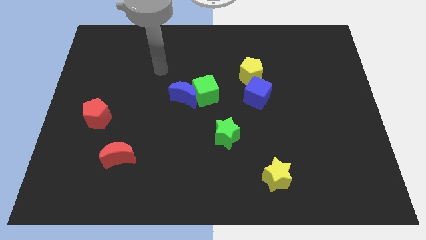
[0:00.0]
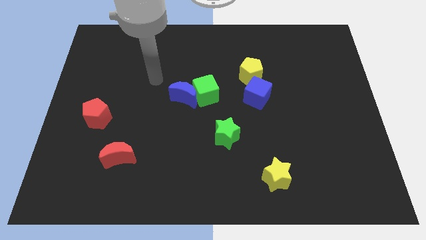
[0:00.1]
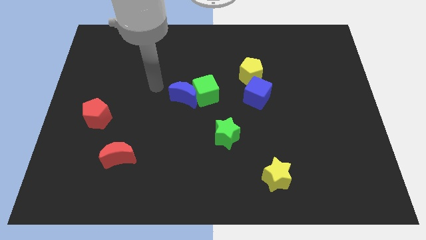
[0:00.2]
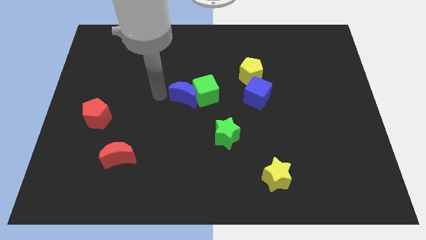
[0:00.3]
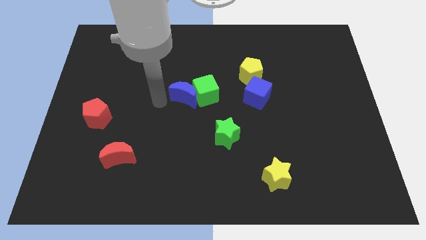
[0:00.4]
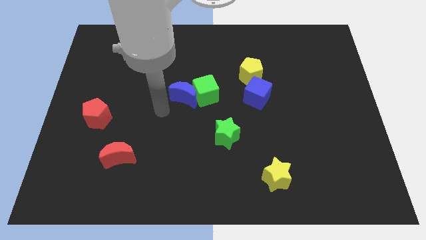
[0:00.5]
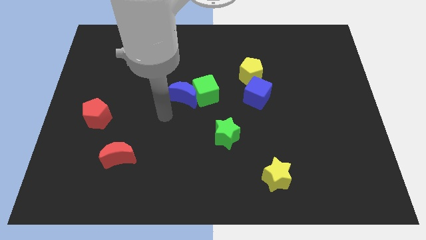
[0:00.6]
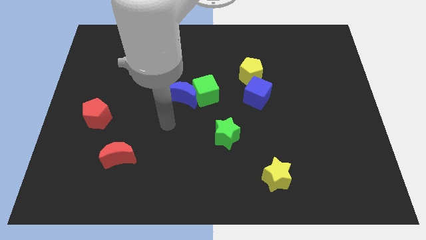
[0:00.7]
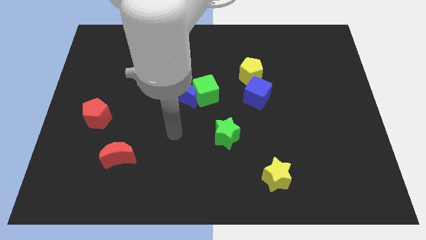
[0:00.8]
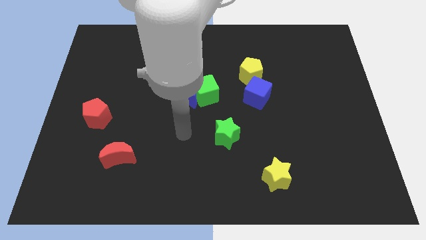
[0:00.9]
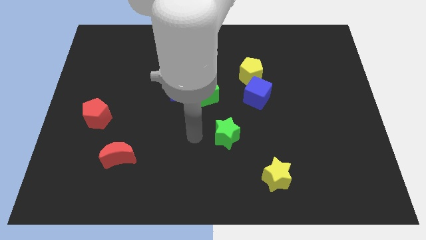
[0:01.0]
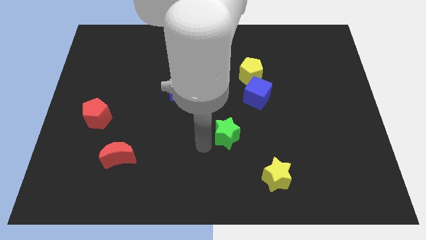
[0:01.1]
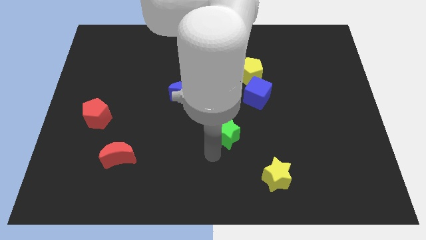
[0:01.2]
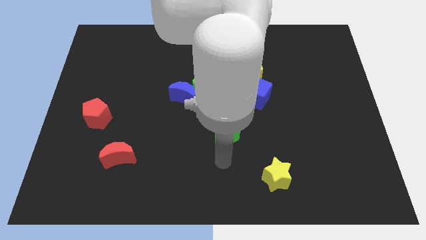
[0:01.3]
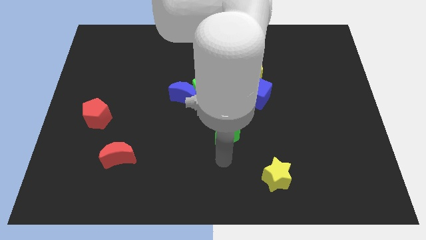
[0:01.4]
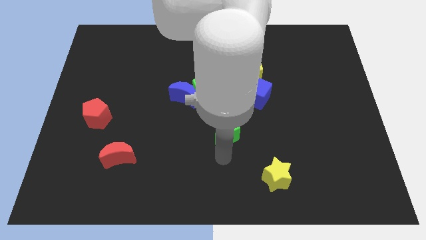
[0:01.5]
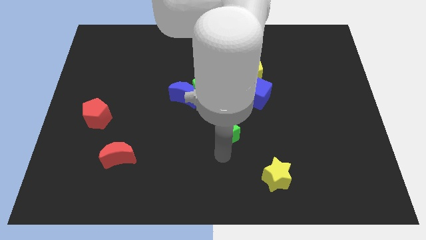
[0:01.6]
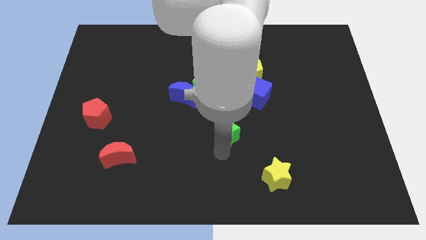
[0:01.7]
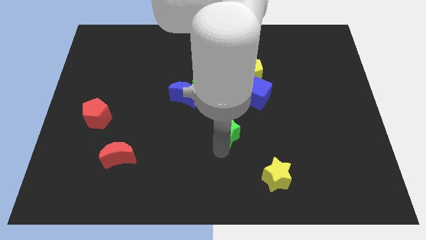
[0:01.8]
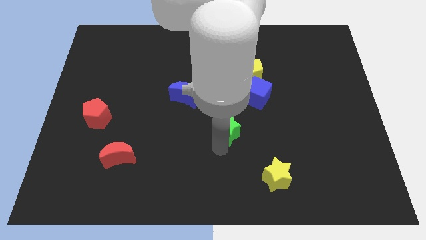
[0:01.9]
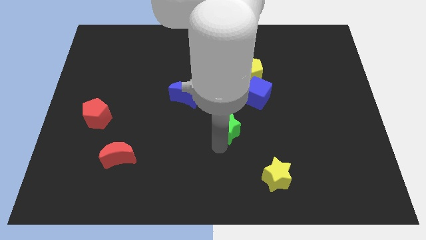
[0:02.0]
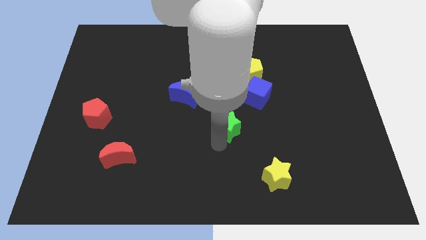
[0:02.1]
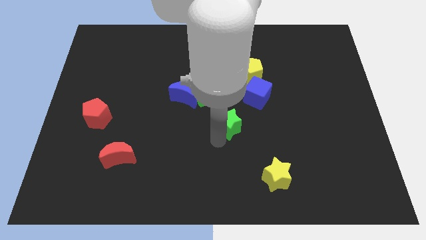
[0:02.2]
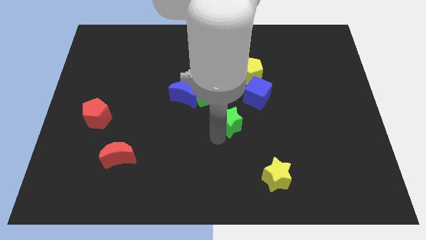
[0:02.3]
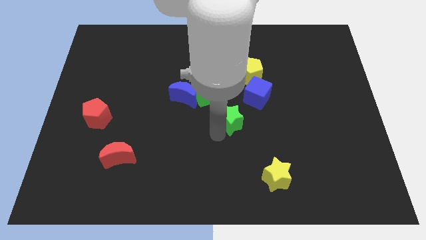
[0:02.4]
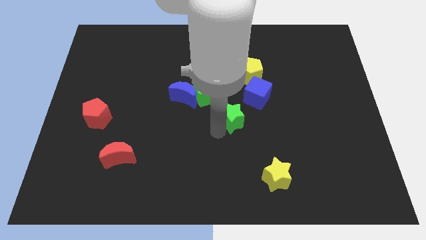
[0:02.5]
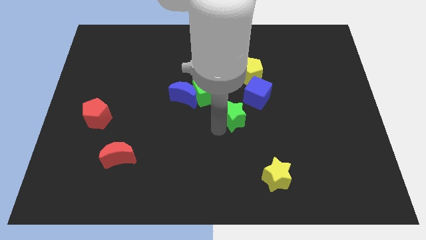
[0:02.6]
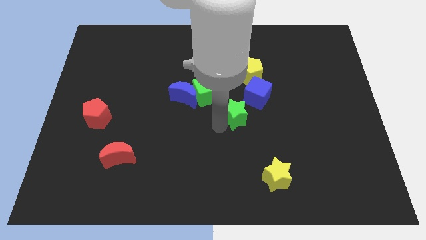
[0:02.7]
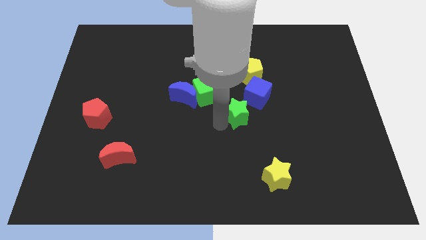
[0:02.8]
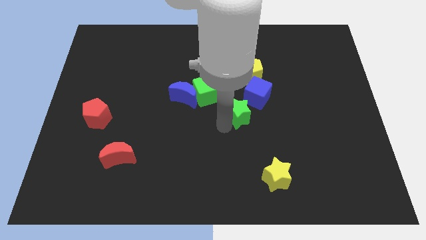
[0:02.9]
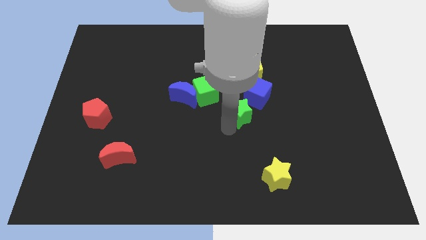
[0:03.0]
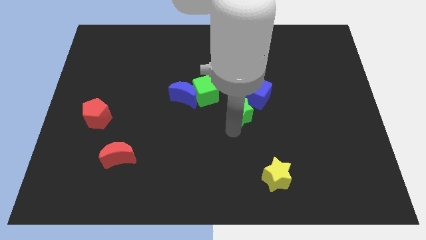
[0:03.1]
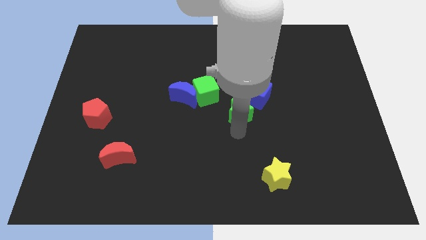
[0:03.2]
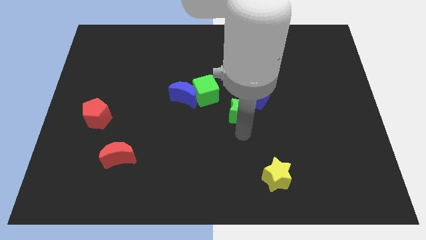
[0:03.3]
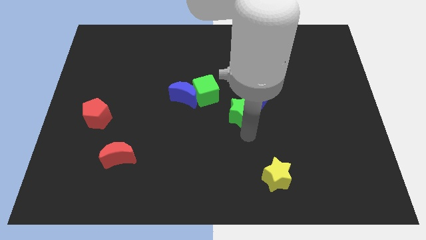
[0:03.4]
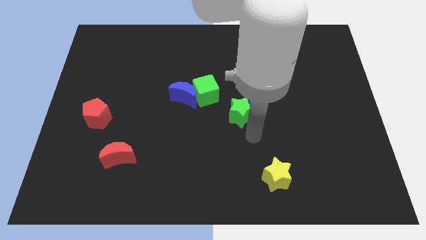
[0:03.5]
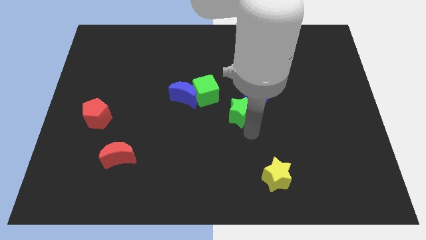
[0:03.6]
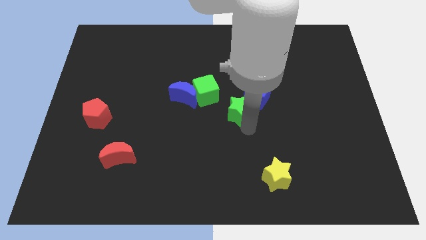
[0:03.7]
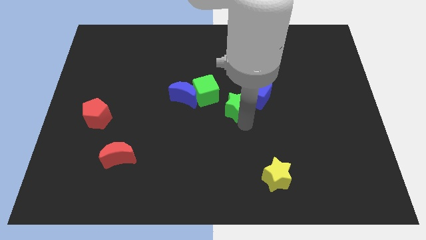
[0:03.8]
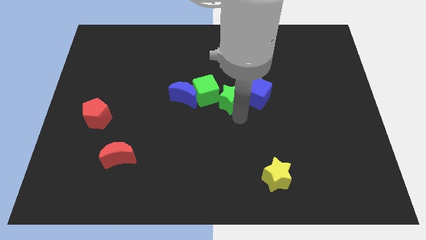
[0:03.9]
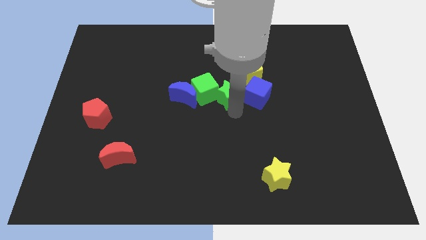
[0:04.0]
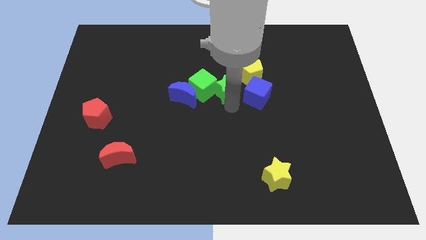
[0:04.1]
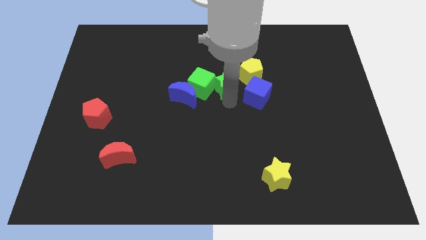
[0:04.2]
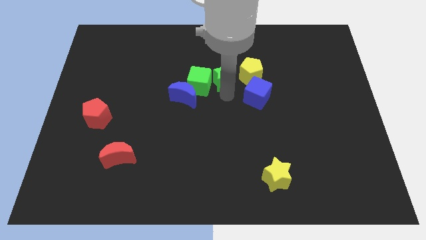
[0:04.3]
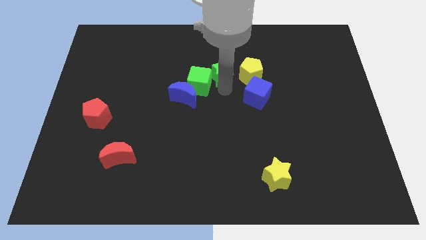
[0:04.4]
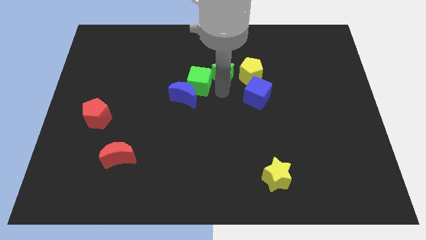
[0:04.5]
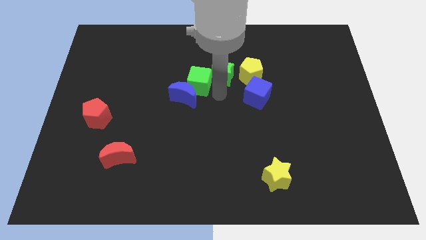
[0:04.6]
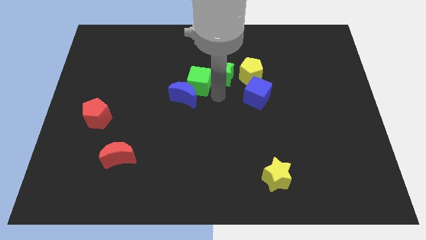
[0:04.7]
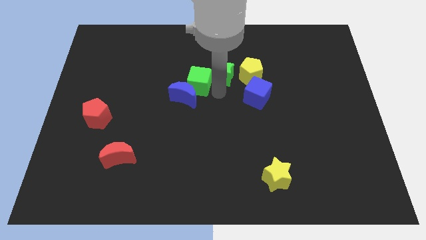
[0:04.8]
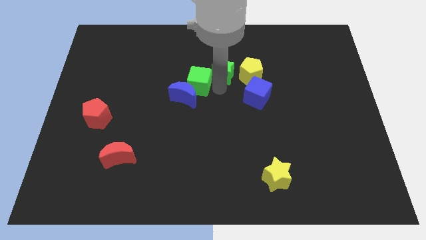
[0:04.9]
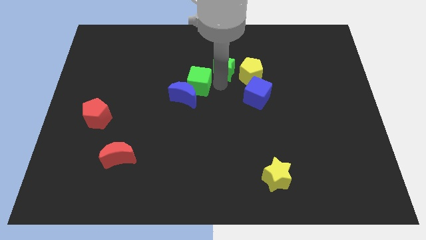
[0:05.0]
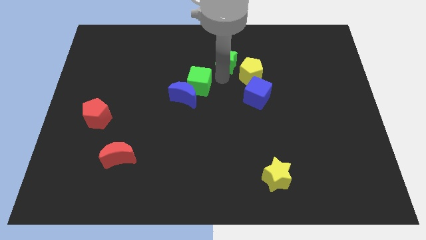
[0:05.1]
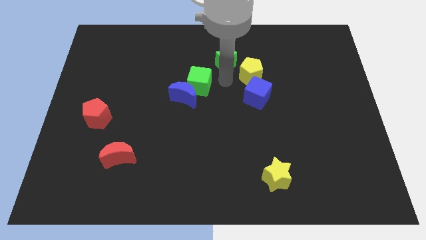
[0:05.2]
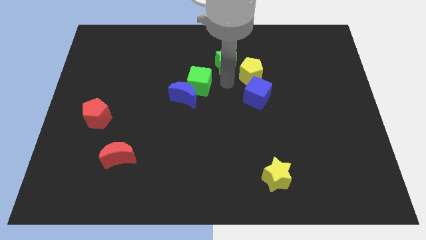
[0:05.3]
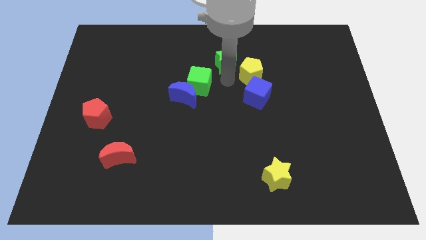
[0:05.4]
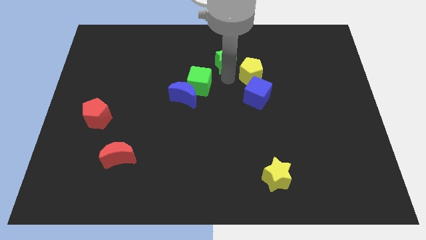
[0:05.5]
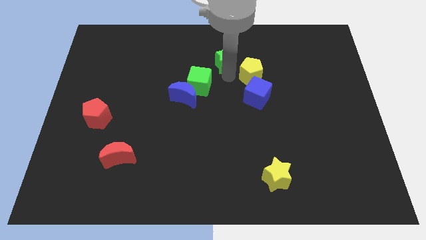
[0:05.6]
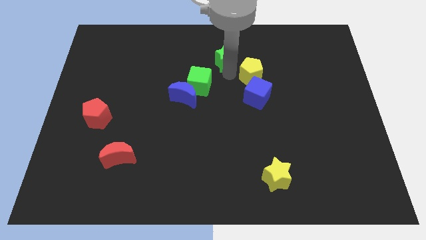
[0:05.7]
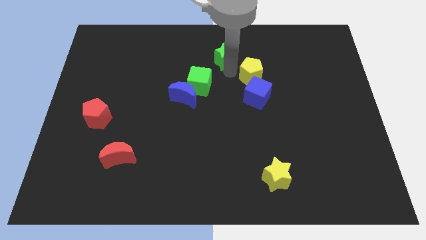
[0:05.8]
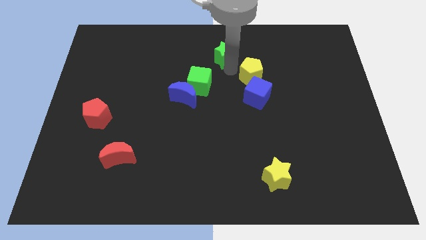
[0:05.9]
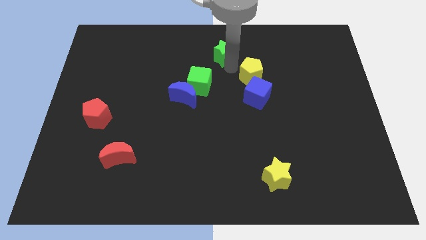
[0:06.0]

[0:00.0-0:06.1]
put the green star to the top side

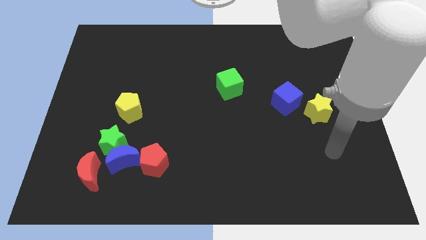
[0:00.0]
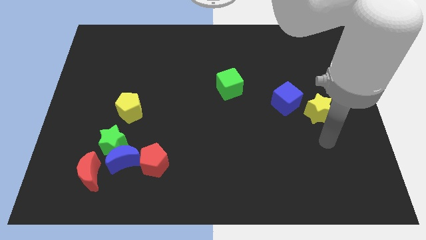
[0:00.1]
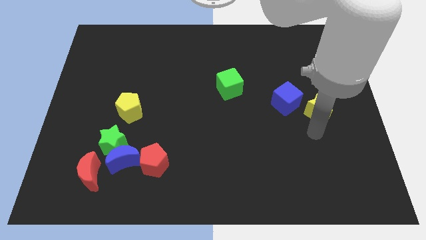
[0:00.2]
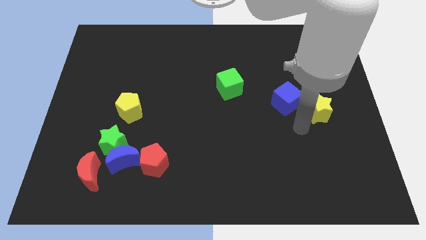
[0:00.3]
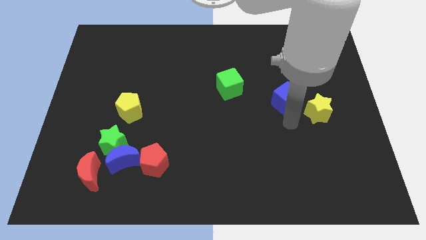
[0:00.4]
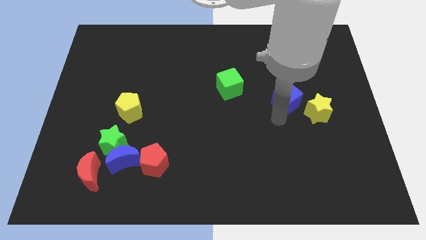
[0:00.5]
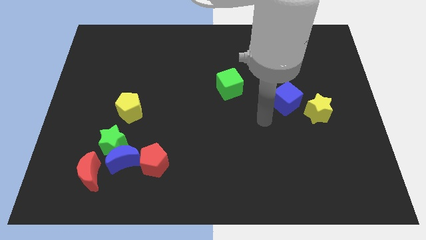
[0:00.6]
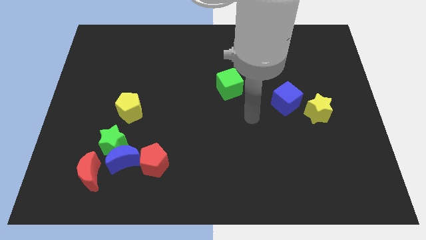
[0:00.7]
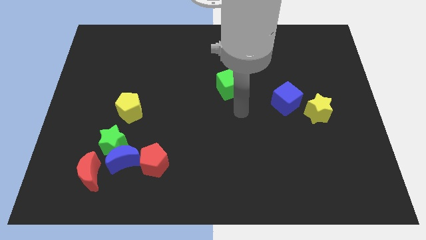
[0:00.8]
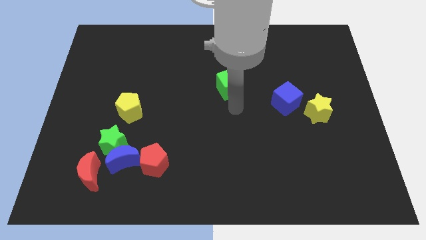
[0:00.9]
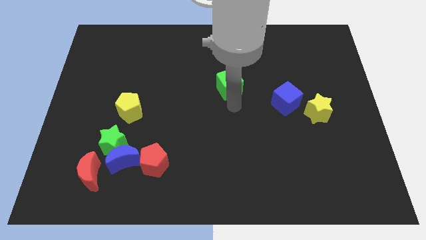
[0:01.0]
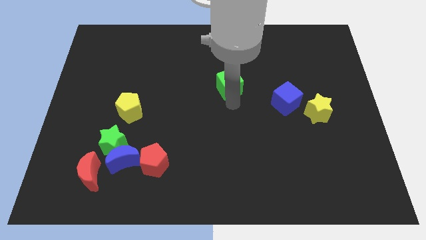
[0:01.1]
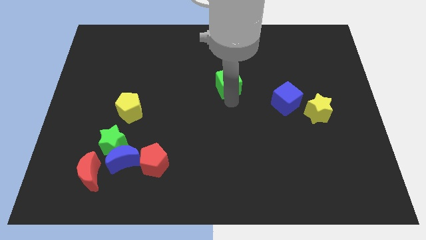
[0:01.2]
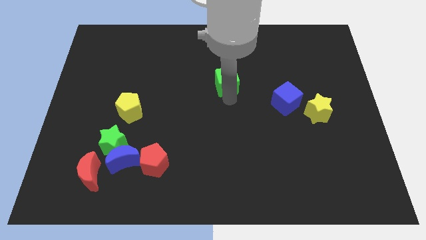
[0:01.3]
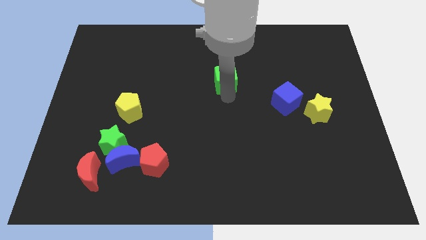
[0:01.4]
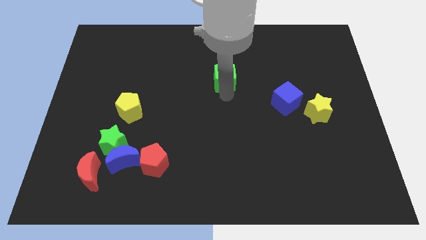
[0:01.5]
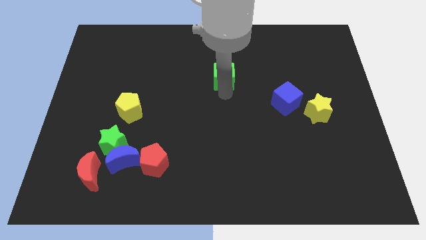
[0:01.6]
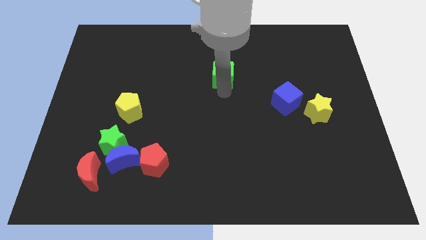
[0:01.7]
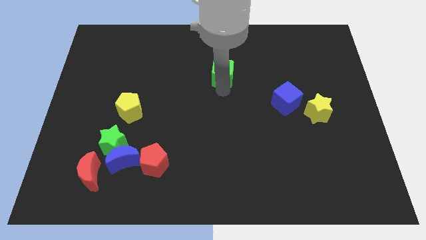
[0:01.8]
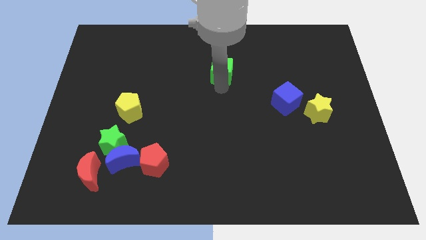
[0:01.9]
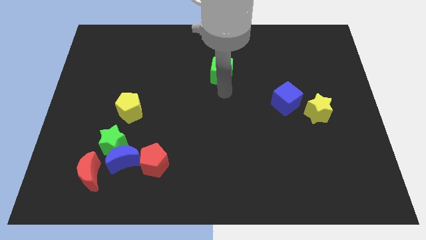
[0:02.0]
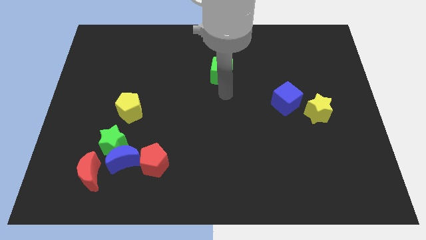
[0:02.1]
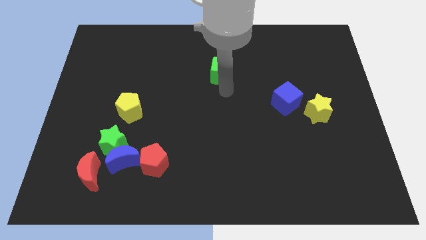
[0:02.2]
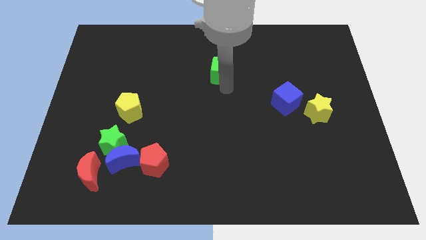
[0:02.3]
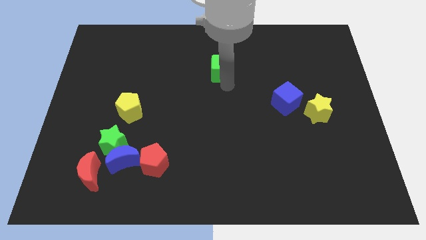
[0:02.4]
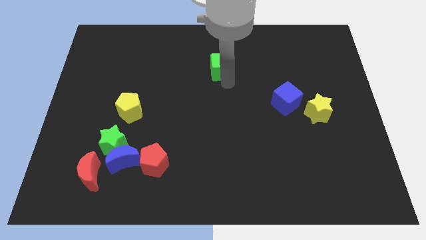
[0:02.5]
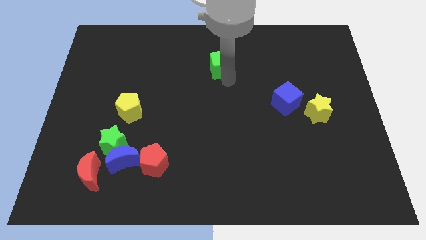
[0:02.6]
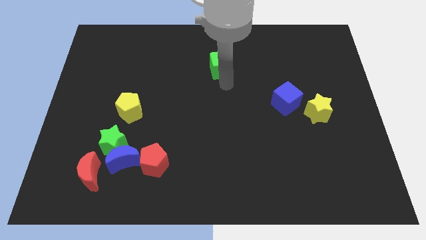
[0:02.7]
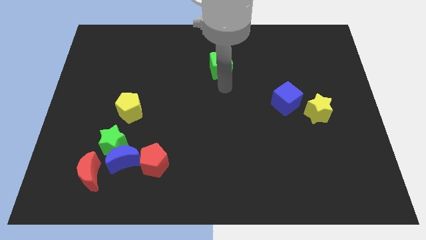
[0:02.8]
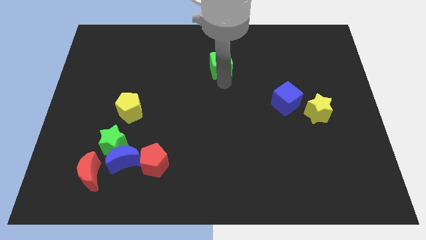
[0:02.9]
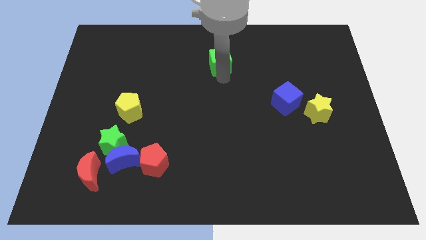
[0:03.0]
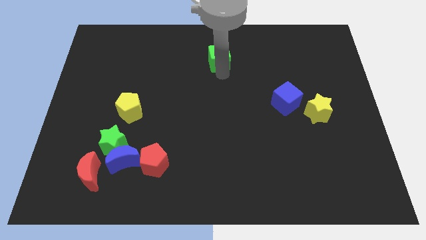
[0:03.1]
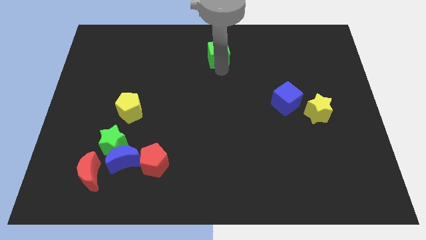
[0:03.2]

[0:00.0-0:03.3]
push the green cube to the towards your base
